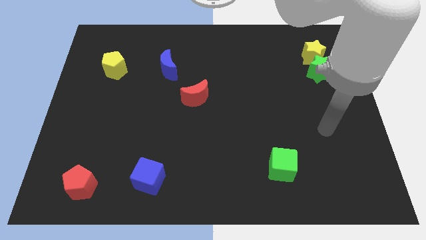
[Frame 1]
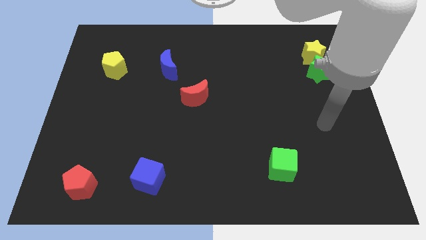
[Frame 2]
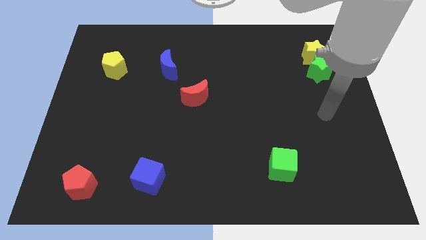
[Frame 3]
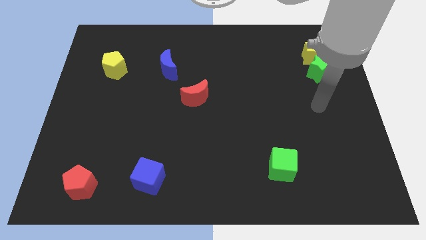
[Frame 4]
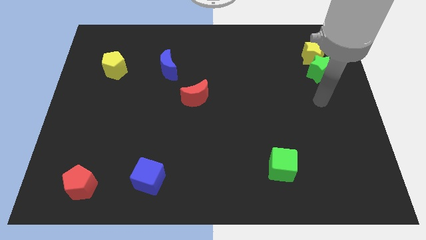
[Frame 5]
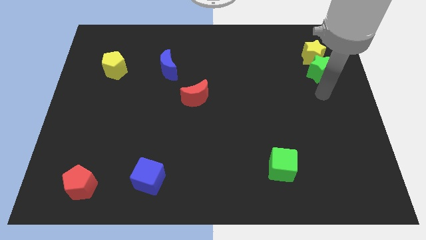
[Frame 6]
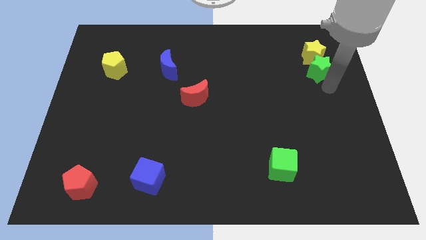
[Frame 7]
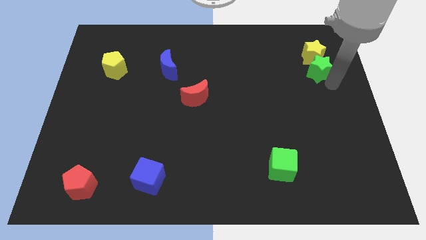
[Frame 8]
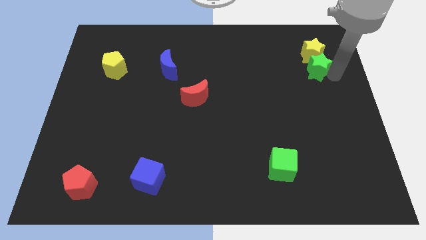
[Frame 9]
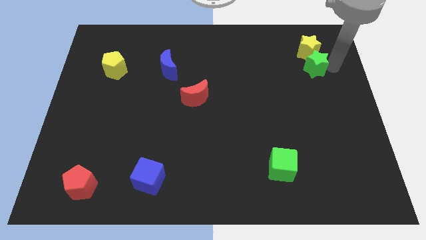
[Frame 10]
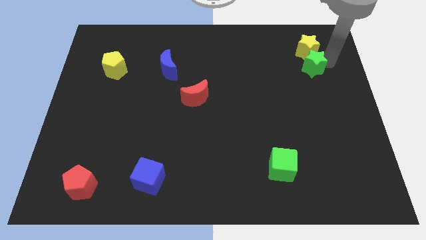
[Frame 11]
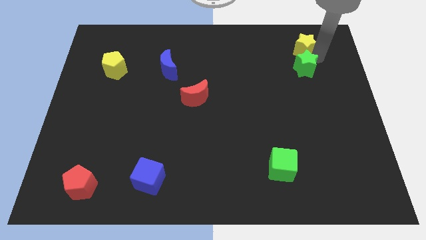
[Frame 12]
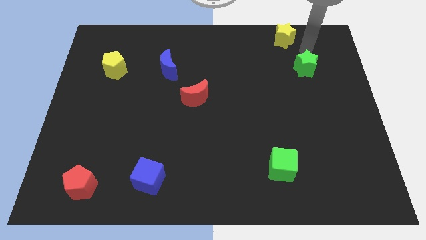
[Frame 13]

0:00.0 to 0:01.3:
move the green star away from the yellow star

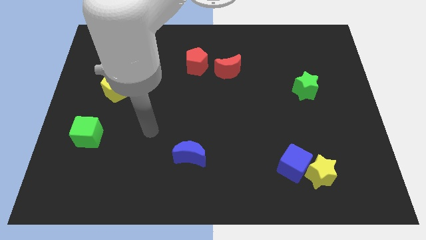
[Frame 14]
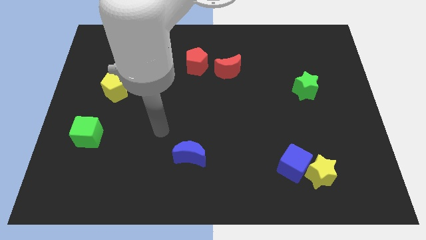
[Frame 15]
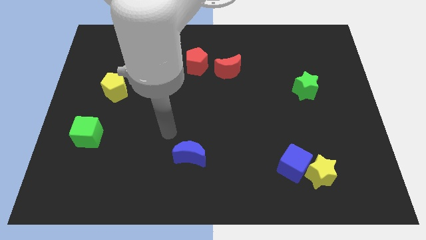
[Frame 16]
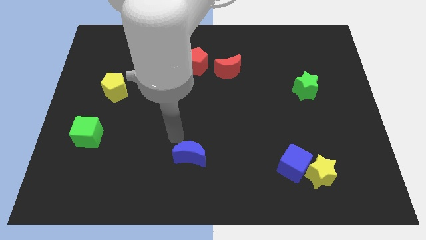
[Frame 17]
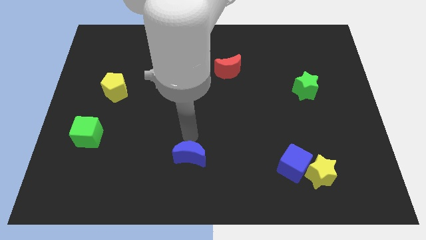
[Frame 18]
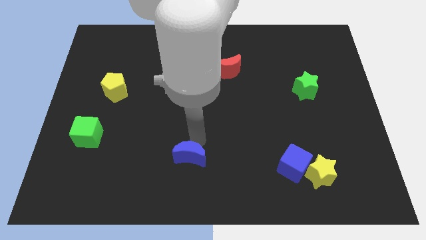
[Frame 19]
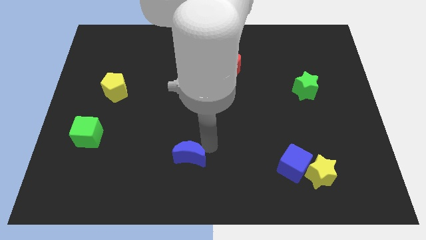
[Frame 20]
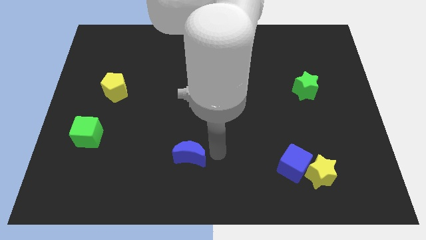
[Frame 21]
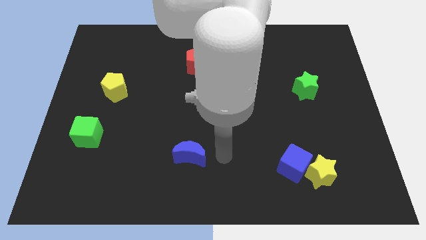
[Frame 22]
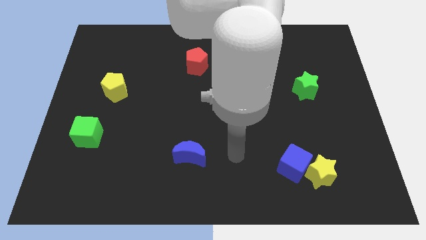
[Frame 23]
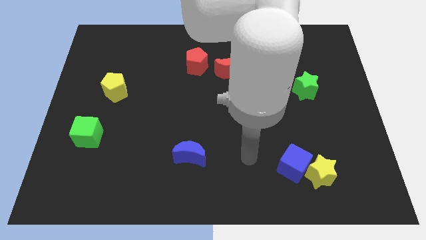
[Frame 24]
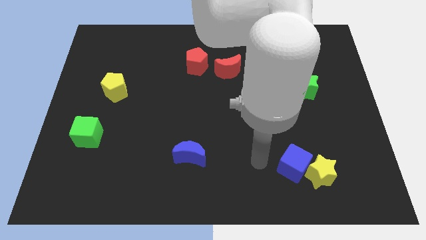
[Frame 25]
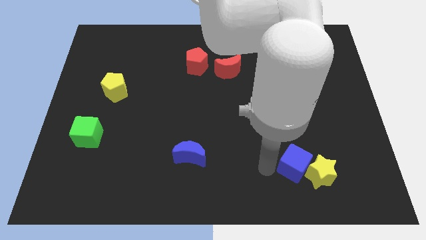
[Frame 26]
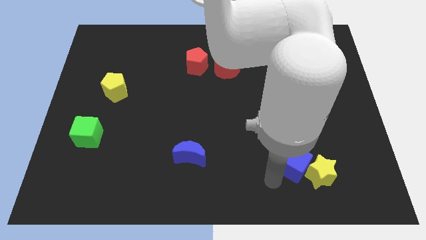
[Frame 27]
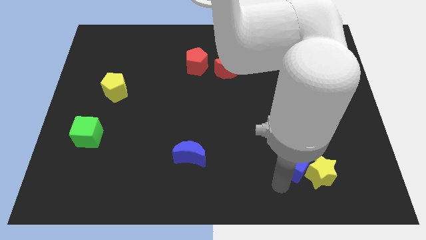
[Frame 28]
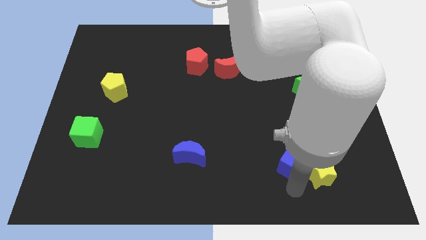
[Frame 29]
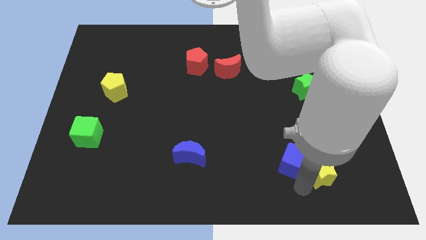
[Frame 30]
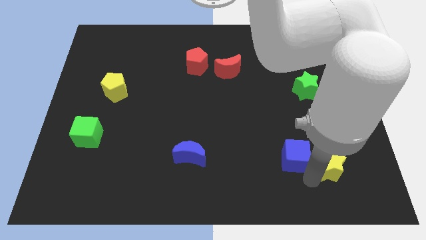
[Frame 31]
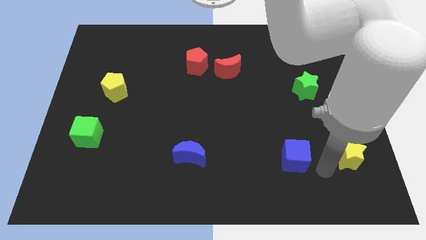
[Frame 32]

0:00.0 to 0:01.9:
move the blue cube away from the yellow star

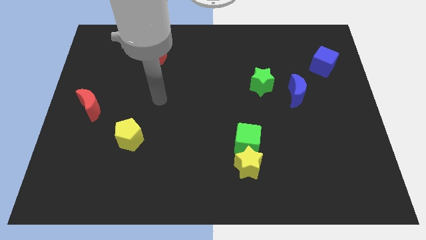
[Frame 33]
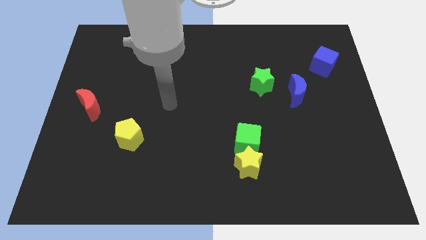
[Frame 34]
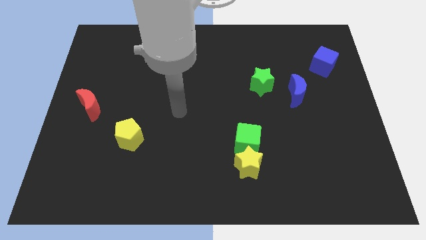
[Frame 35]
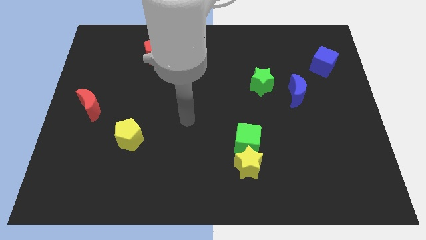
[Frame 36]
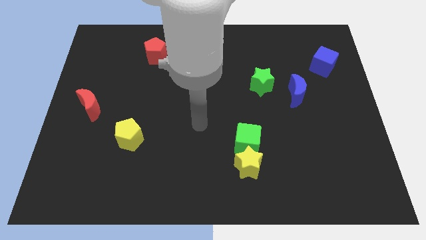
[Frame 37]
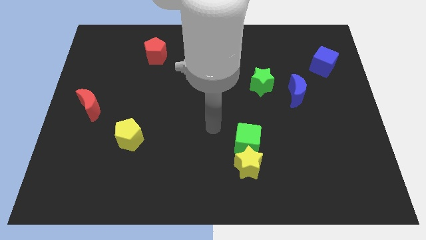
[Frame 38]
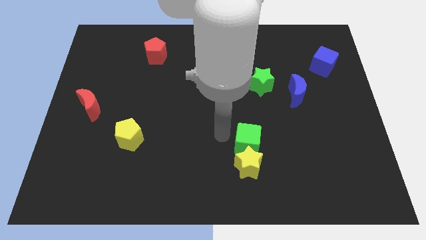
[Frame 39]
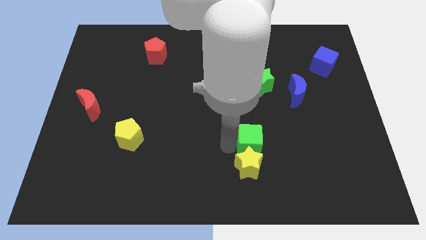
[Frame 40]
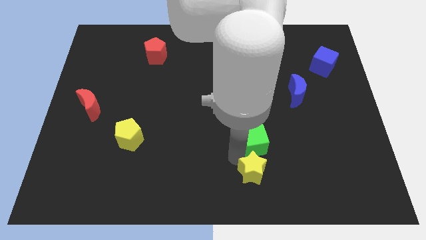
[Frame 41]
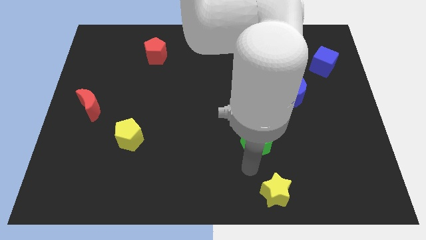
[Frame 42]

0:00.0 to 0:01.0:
separate the green cube from the yellow star

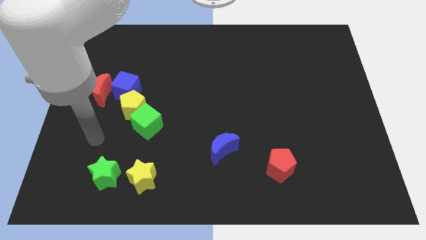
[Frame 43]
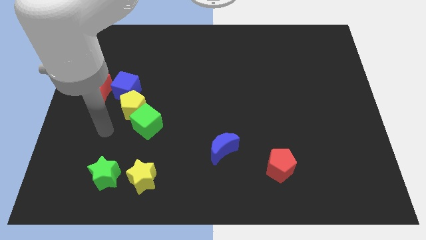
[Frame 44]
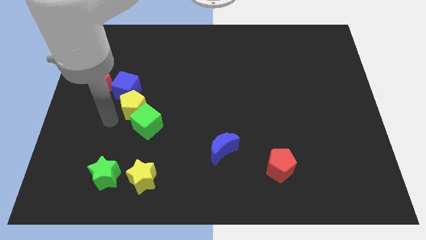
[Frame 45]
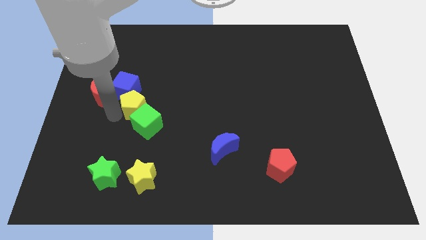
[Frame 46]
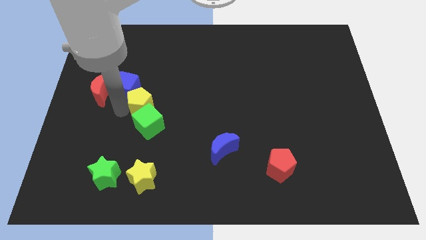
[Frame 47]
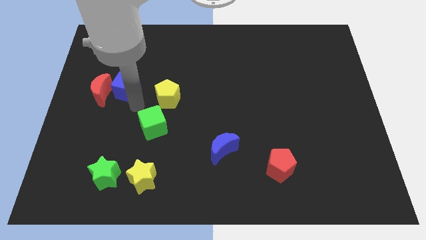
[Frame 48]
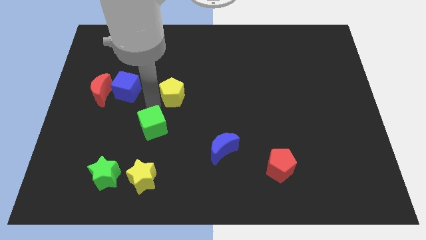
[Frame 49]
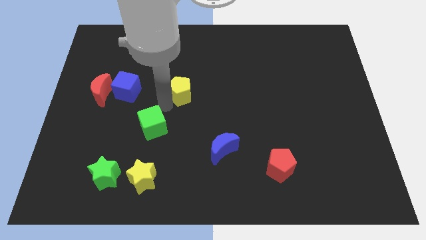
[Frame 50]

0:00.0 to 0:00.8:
move the green cube away from the yellow pentagon

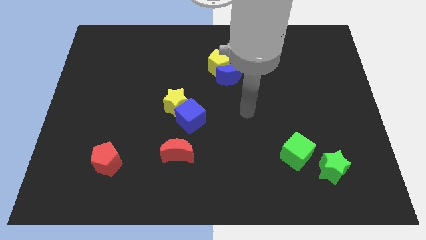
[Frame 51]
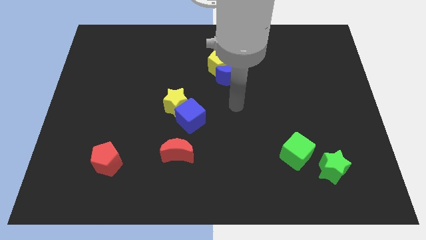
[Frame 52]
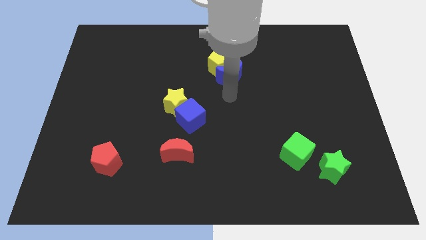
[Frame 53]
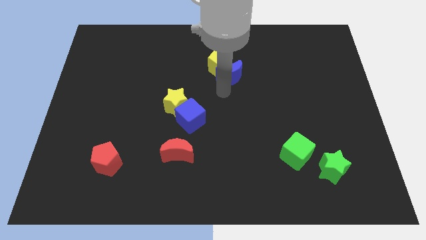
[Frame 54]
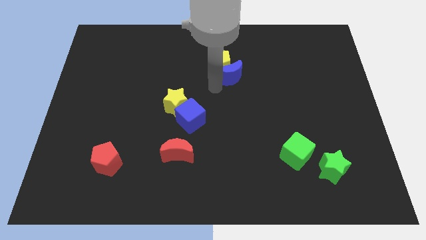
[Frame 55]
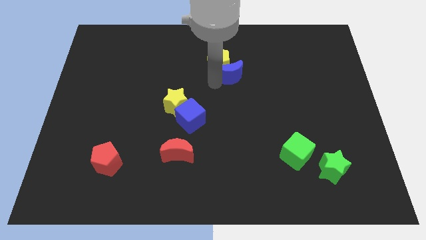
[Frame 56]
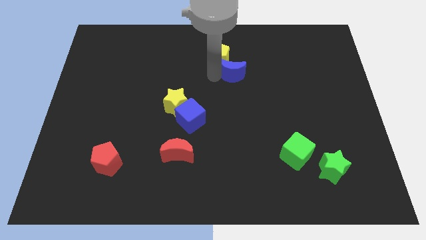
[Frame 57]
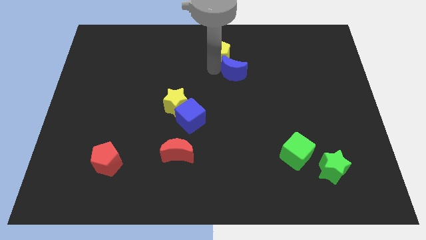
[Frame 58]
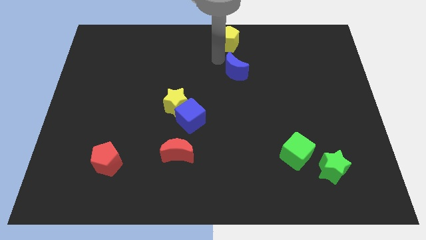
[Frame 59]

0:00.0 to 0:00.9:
move the blue moon away from the yellow pentagon

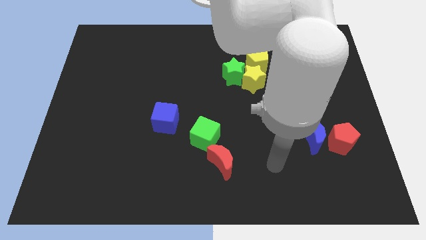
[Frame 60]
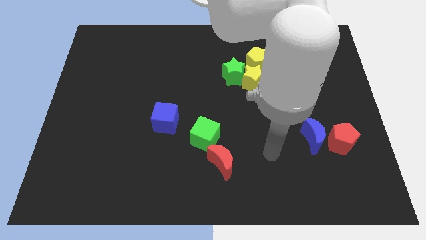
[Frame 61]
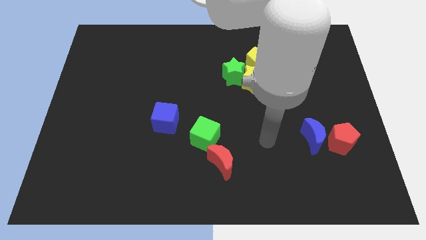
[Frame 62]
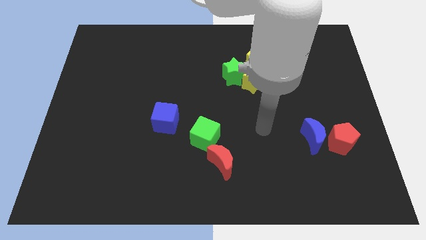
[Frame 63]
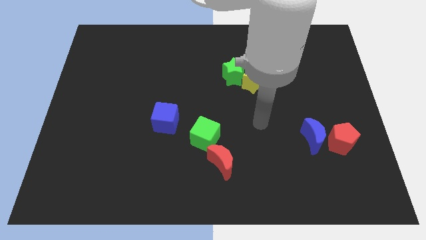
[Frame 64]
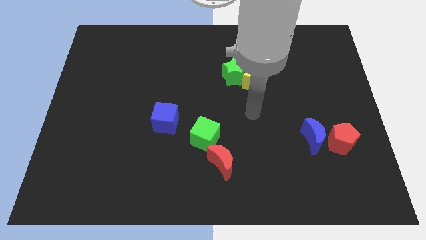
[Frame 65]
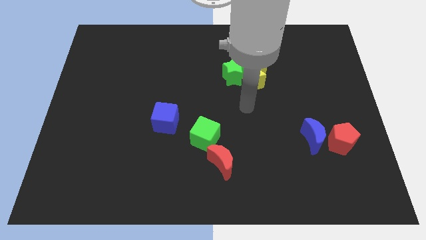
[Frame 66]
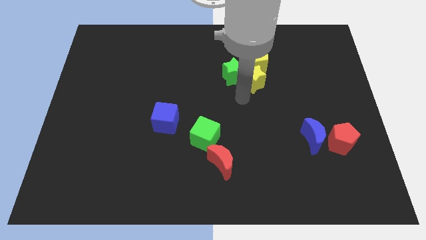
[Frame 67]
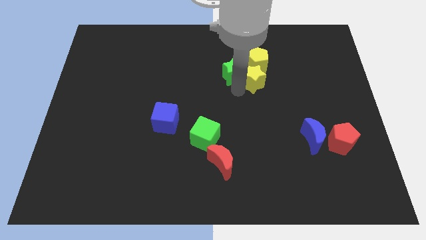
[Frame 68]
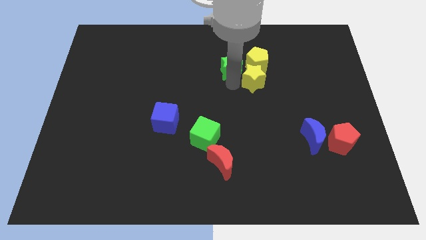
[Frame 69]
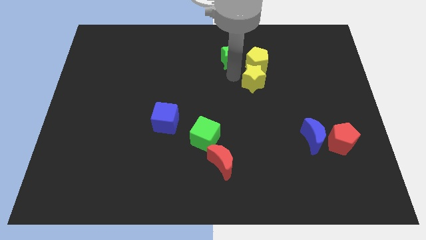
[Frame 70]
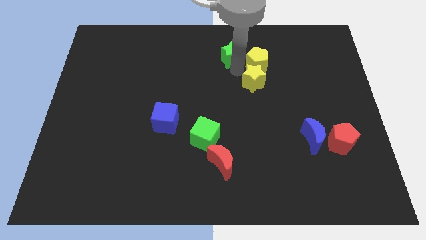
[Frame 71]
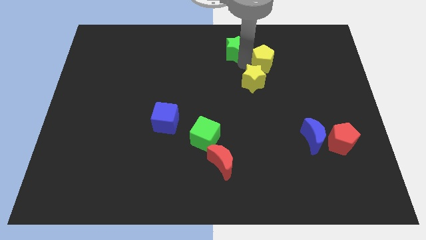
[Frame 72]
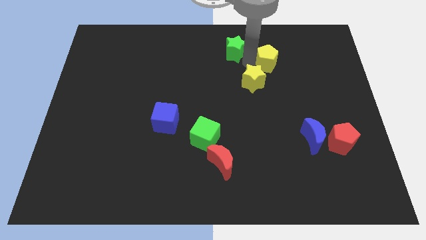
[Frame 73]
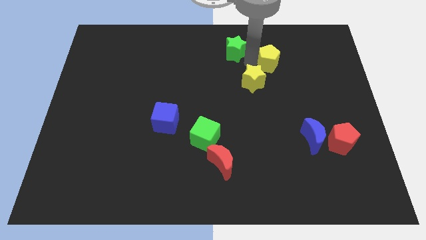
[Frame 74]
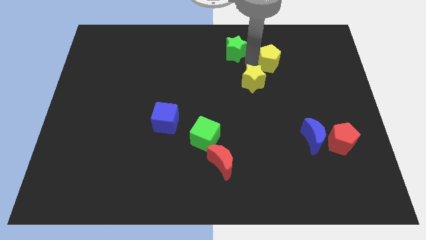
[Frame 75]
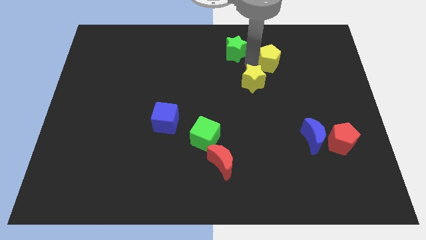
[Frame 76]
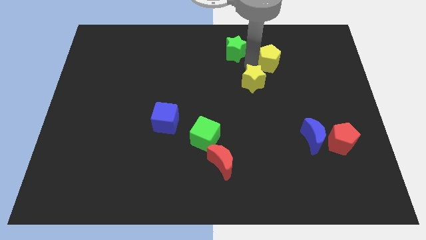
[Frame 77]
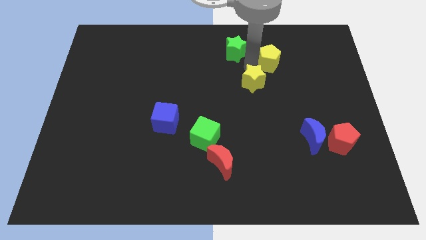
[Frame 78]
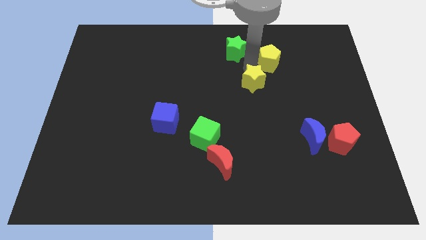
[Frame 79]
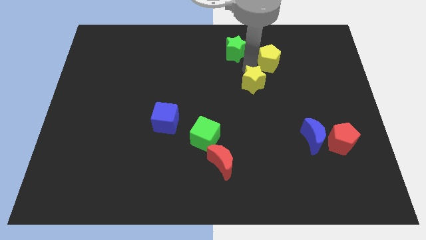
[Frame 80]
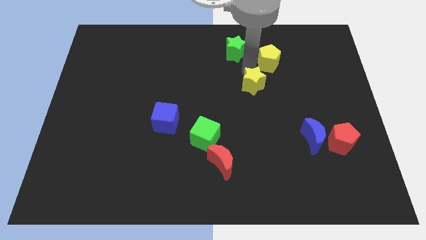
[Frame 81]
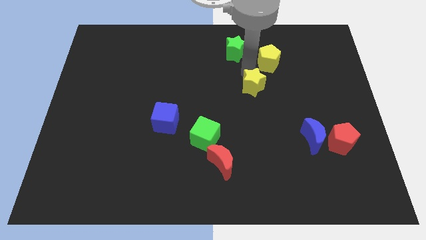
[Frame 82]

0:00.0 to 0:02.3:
separate the yellow star from the green star and yellow pentagon

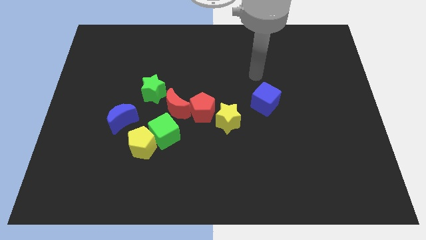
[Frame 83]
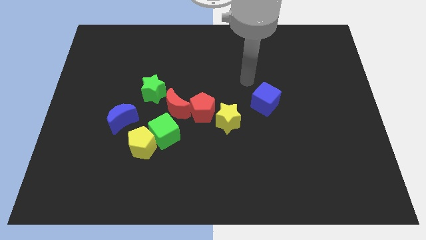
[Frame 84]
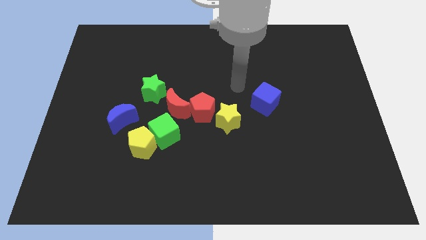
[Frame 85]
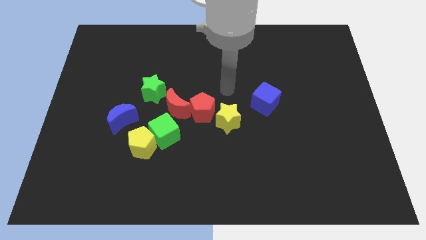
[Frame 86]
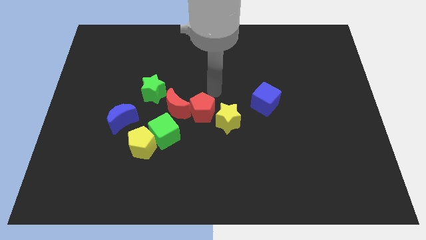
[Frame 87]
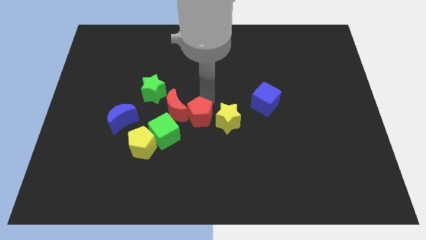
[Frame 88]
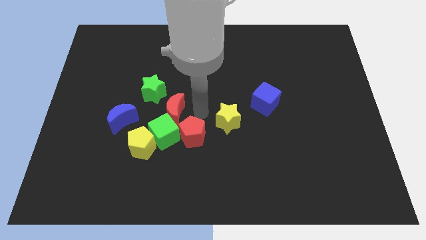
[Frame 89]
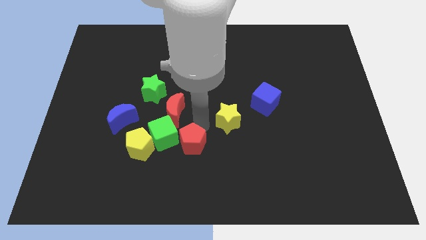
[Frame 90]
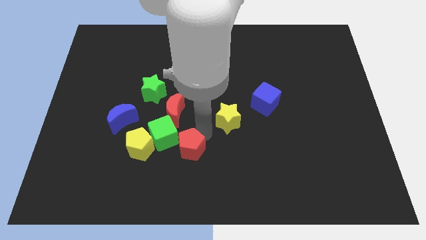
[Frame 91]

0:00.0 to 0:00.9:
separate the yellow star from the red pentagon

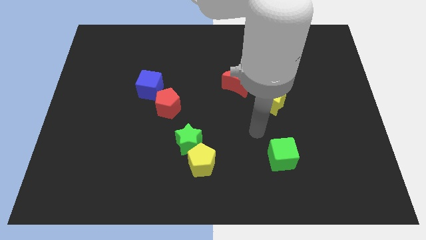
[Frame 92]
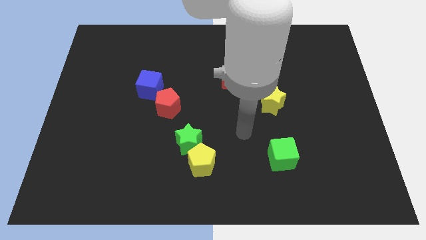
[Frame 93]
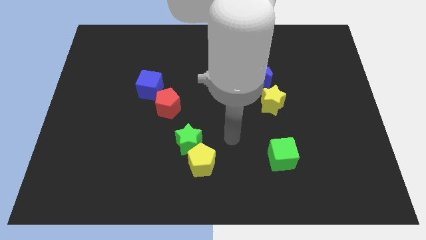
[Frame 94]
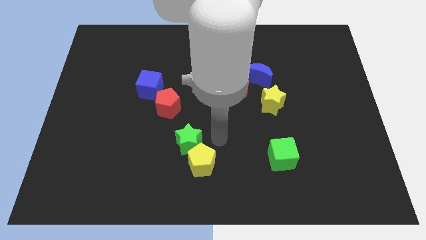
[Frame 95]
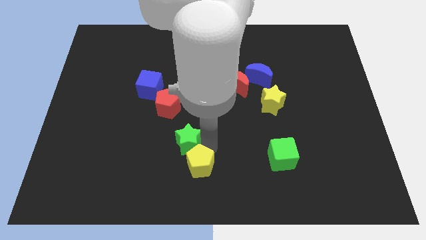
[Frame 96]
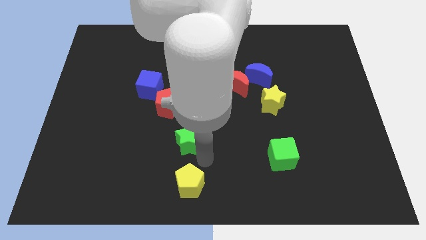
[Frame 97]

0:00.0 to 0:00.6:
move the green star away from the yellow pentagon
